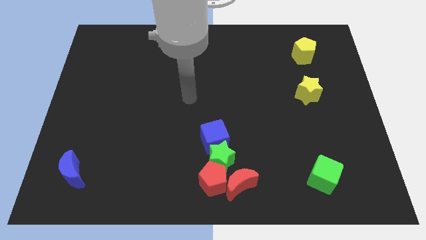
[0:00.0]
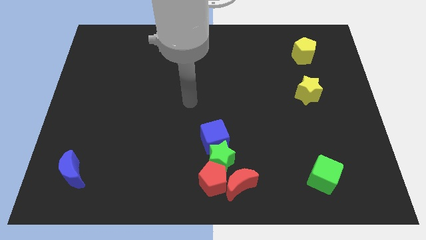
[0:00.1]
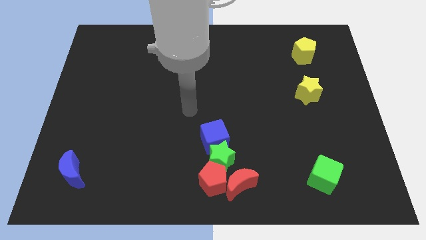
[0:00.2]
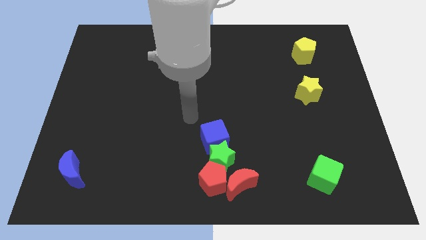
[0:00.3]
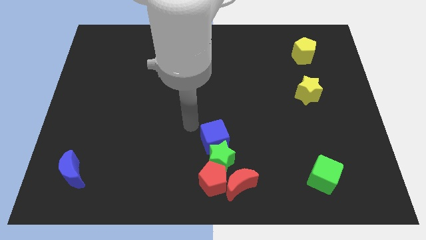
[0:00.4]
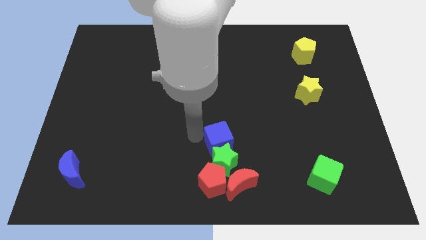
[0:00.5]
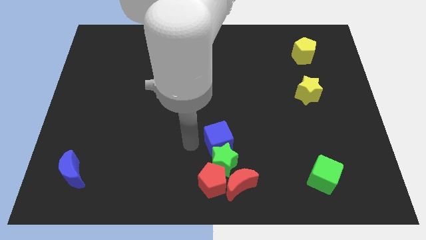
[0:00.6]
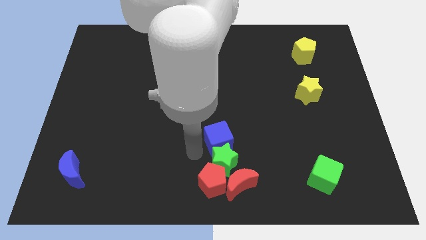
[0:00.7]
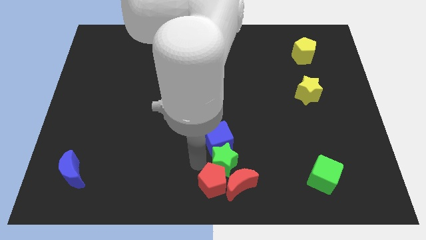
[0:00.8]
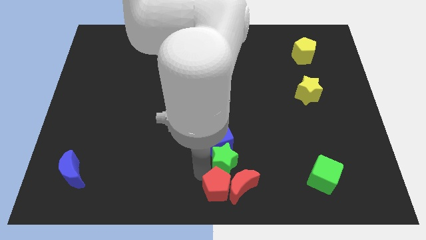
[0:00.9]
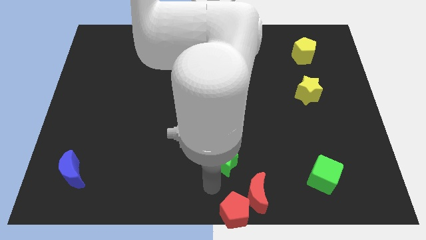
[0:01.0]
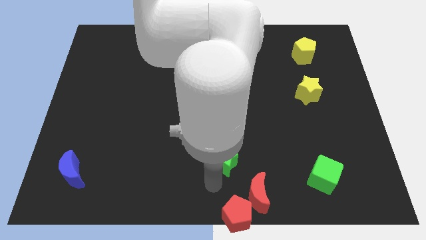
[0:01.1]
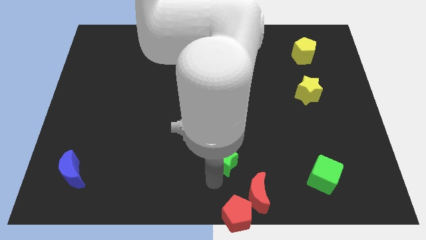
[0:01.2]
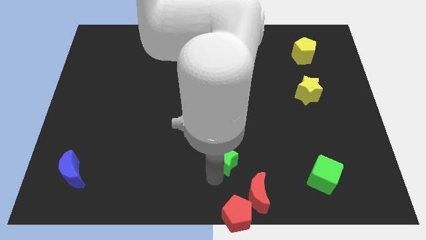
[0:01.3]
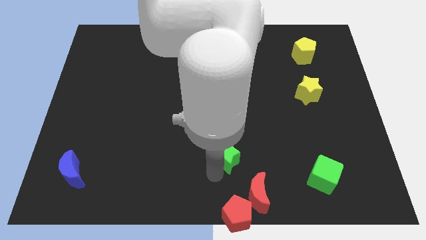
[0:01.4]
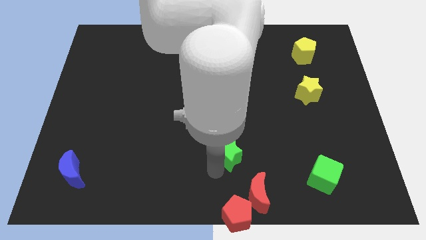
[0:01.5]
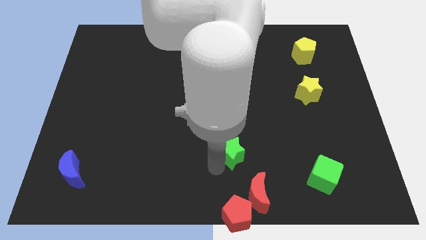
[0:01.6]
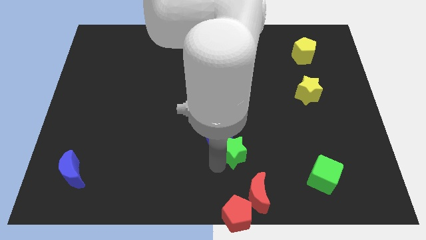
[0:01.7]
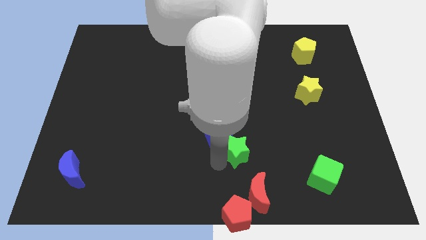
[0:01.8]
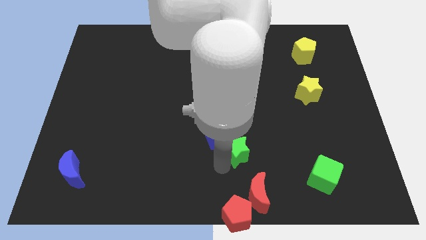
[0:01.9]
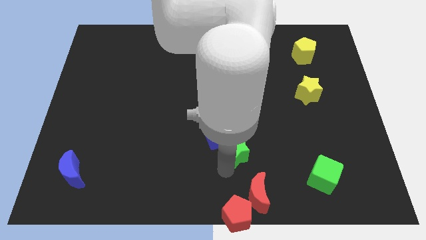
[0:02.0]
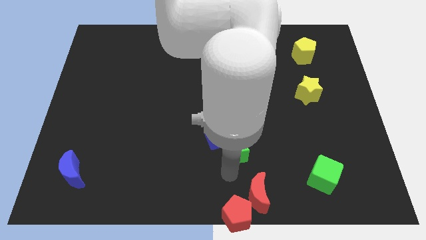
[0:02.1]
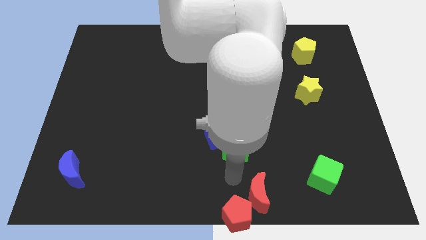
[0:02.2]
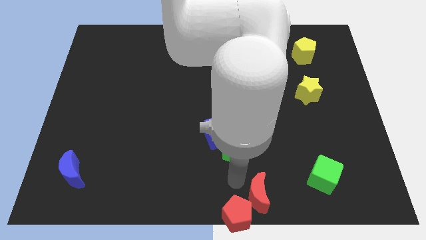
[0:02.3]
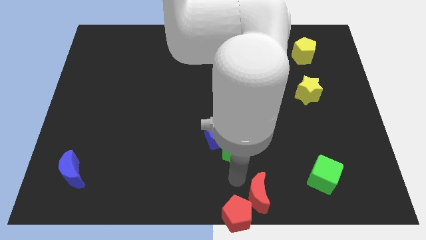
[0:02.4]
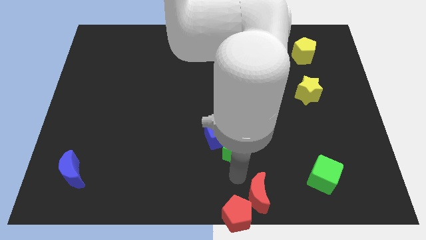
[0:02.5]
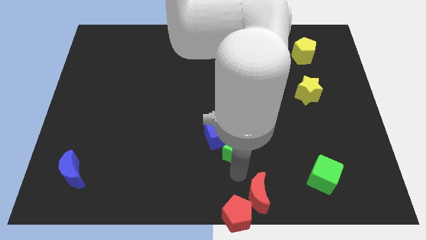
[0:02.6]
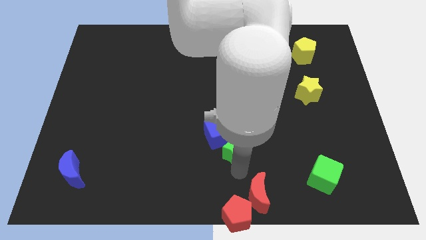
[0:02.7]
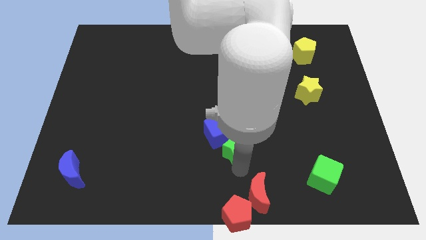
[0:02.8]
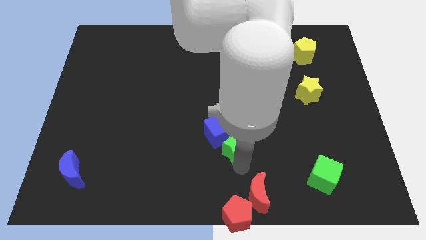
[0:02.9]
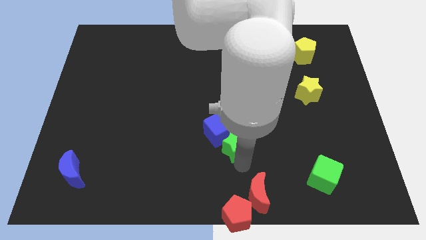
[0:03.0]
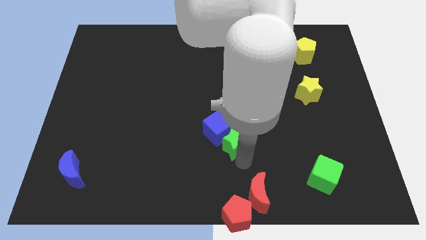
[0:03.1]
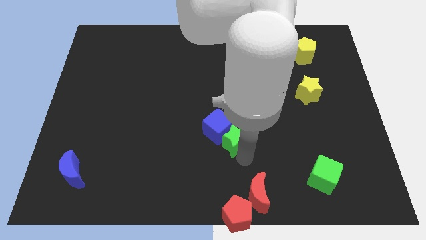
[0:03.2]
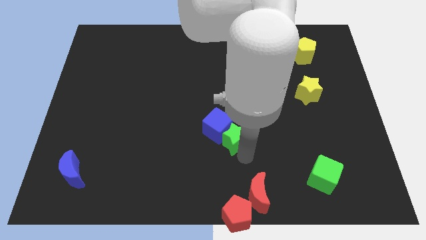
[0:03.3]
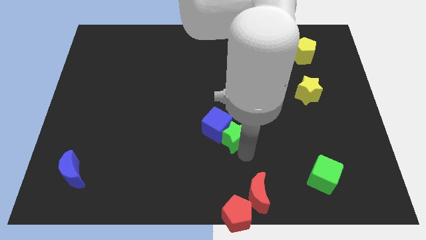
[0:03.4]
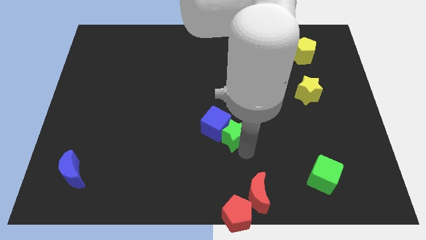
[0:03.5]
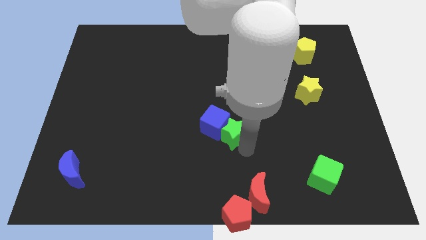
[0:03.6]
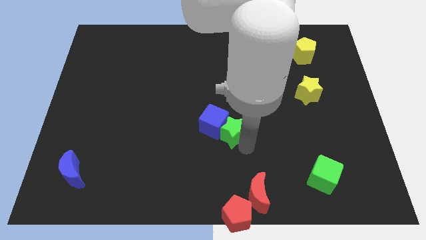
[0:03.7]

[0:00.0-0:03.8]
pull the green star apart from the group of blocks

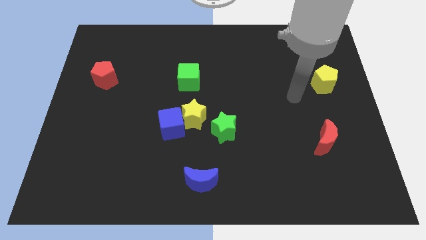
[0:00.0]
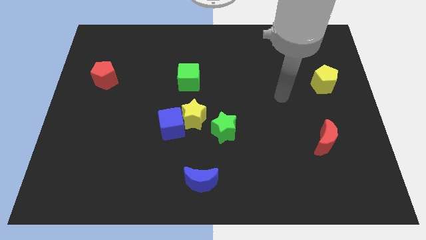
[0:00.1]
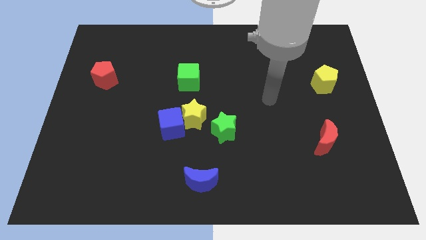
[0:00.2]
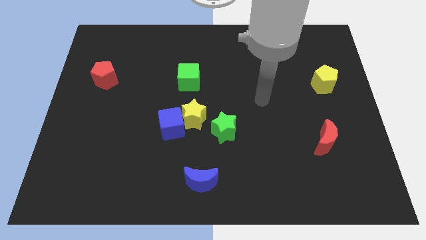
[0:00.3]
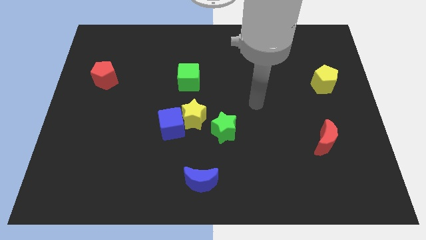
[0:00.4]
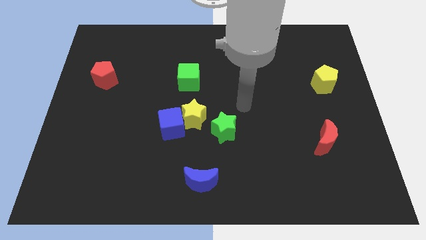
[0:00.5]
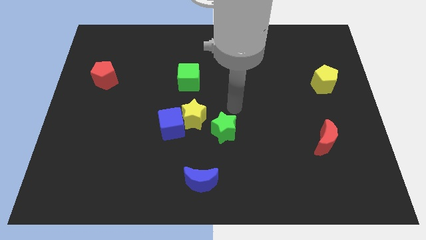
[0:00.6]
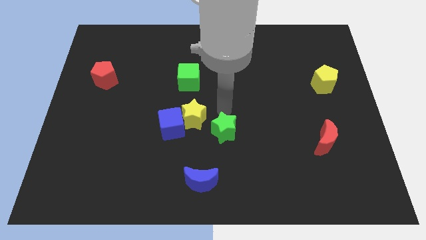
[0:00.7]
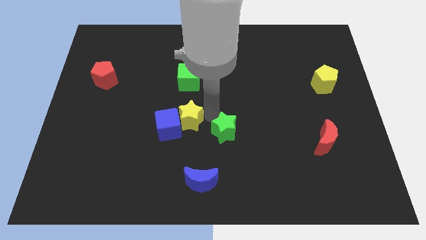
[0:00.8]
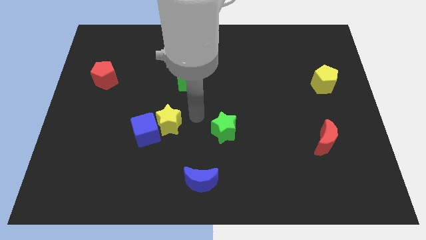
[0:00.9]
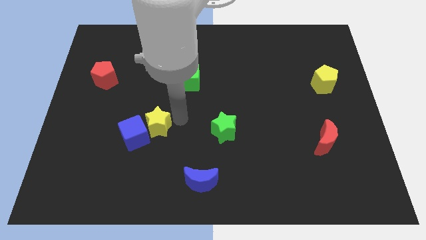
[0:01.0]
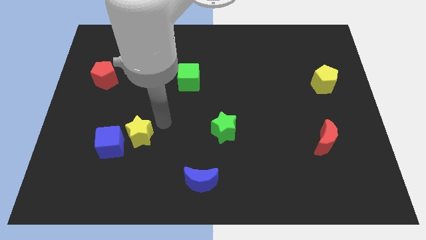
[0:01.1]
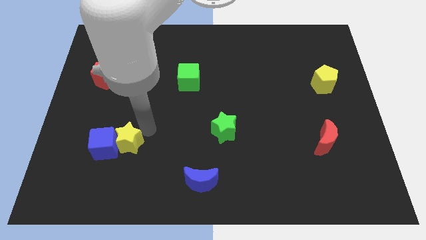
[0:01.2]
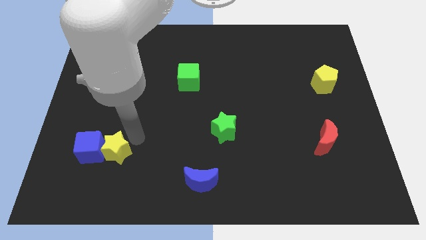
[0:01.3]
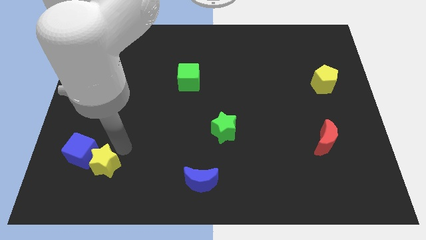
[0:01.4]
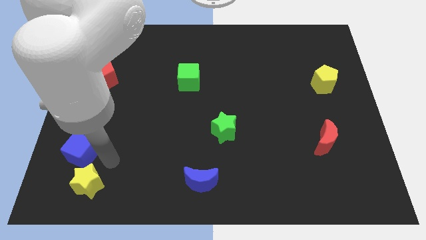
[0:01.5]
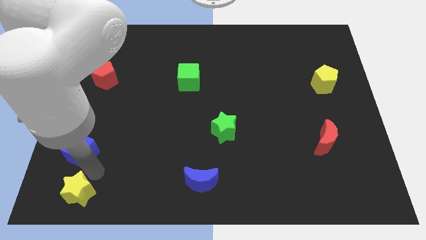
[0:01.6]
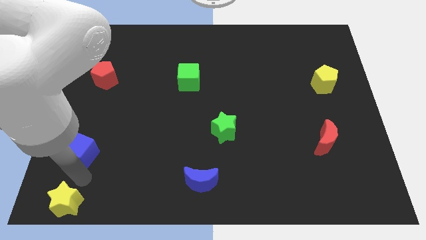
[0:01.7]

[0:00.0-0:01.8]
separate the blue cube from the yellow star

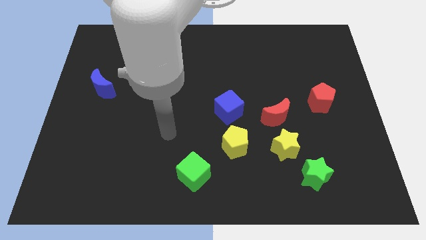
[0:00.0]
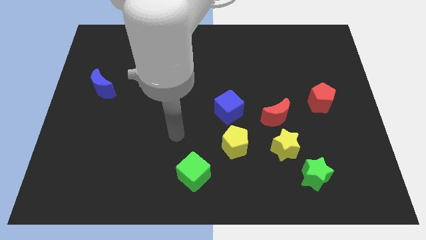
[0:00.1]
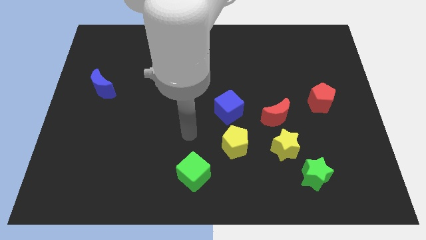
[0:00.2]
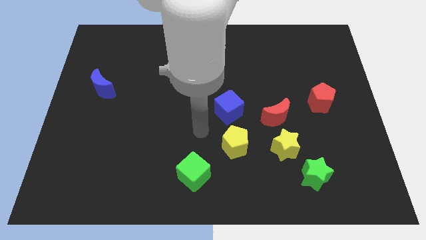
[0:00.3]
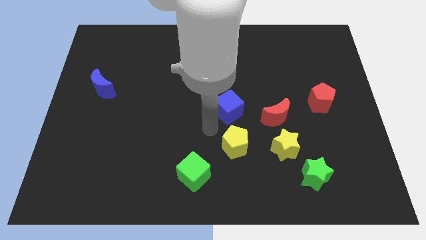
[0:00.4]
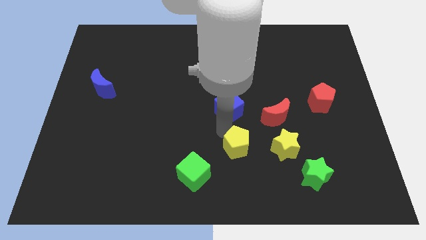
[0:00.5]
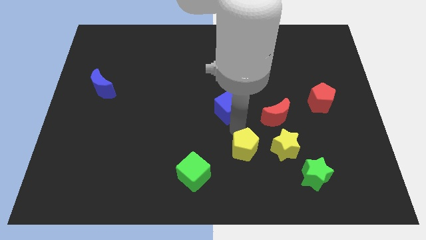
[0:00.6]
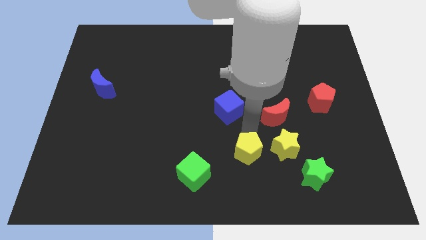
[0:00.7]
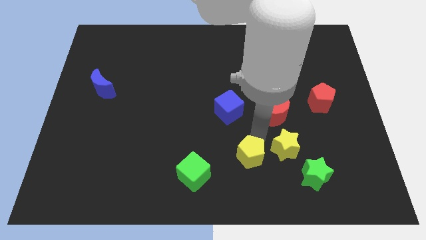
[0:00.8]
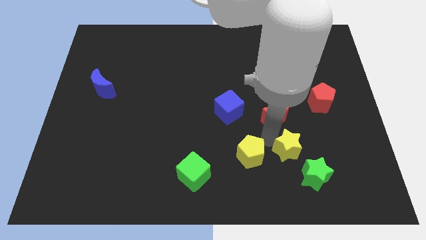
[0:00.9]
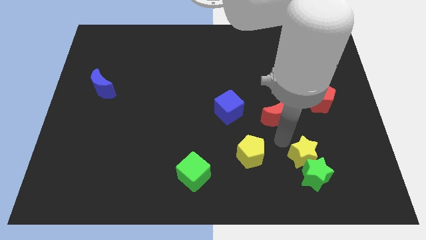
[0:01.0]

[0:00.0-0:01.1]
separate the red moon from the yellow star

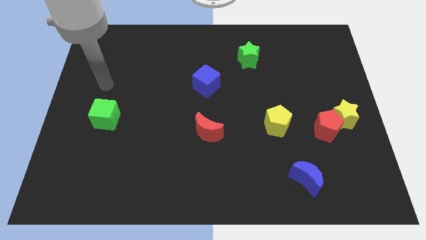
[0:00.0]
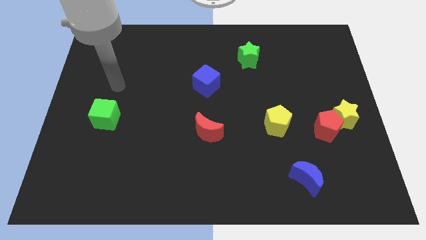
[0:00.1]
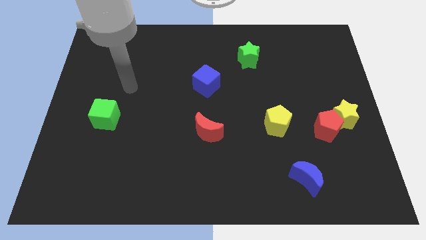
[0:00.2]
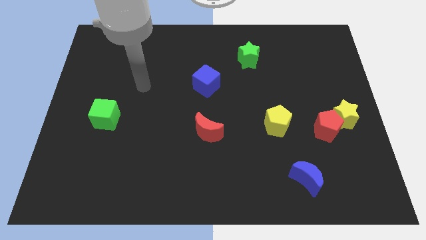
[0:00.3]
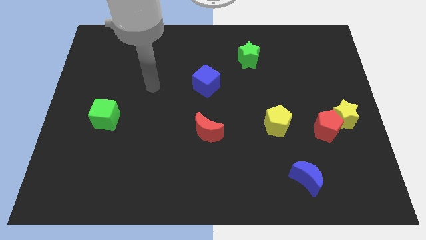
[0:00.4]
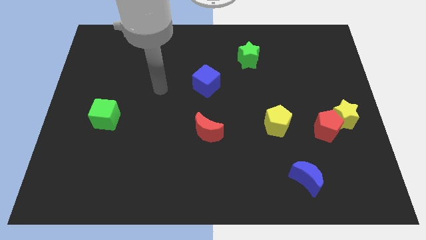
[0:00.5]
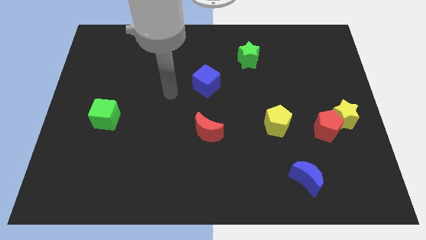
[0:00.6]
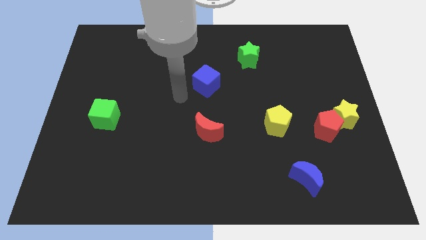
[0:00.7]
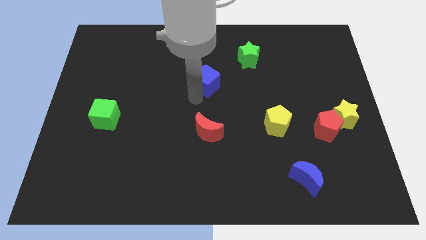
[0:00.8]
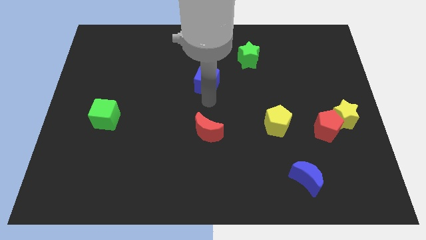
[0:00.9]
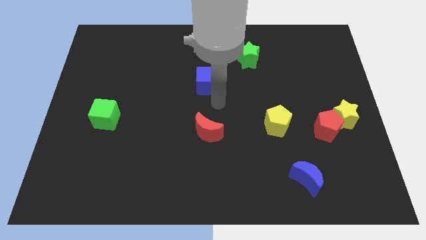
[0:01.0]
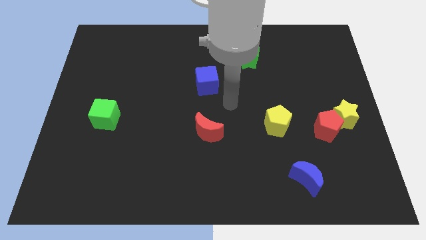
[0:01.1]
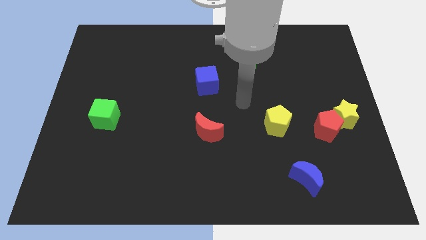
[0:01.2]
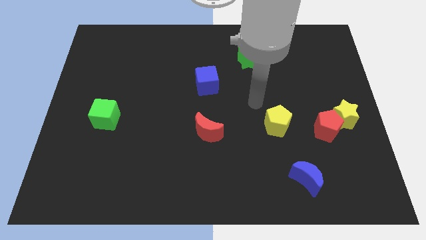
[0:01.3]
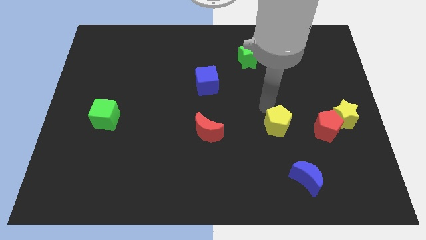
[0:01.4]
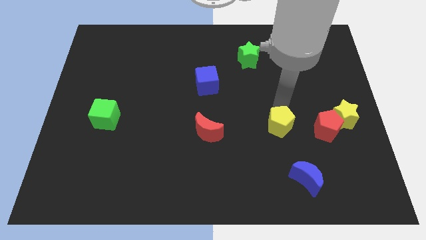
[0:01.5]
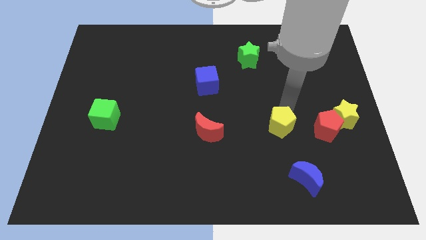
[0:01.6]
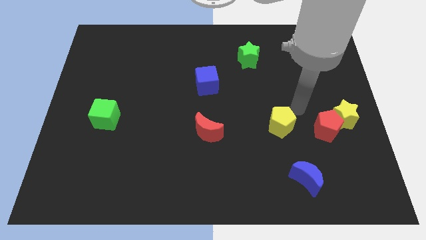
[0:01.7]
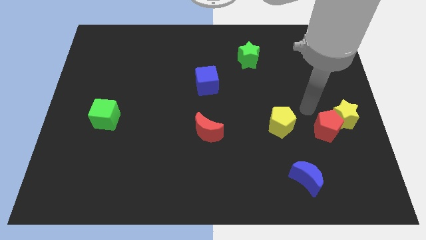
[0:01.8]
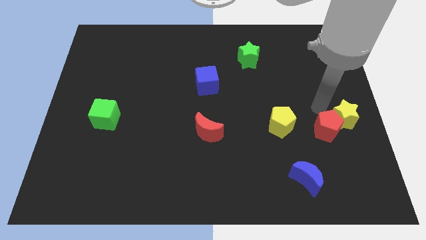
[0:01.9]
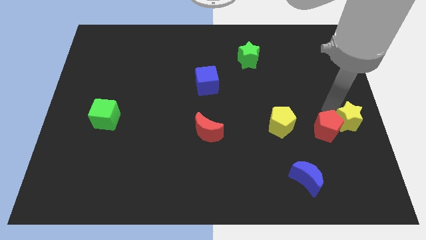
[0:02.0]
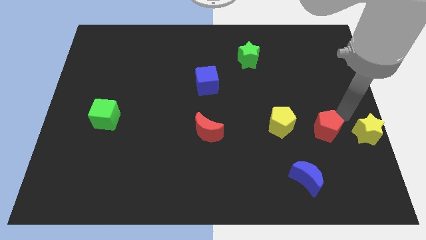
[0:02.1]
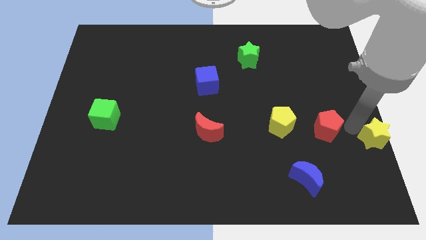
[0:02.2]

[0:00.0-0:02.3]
pull the red pentagon apart from the yellow star

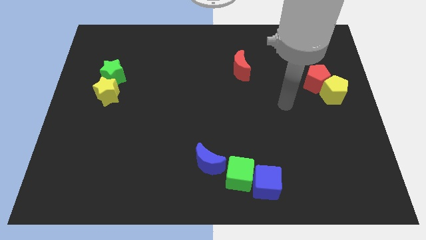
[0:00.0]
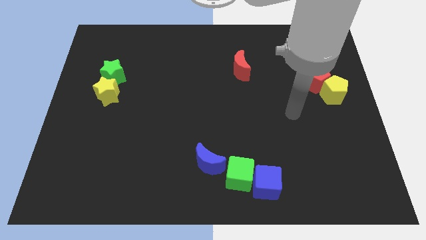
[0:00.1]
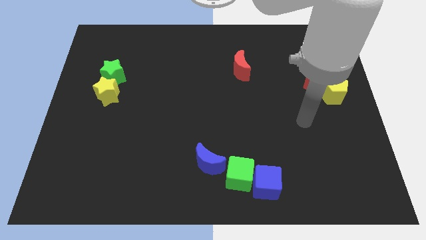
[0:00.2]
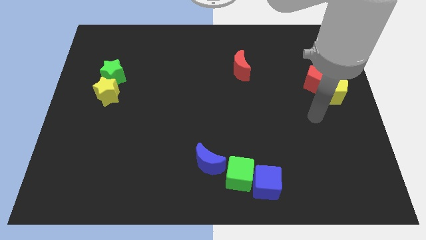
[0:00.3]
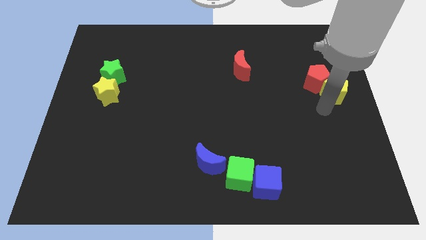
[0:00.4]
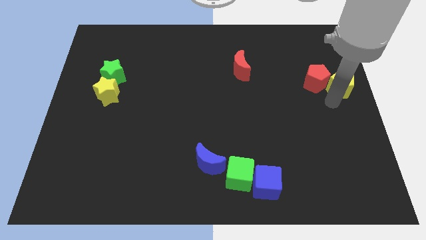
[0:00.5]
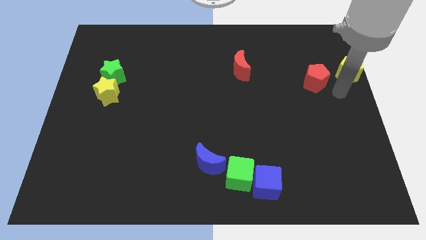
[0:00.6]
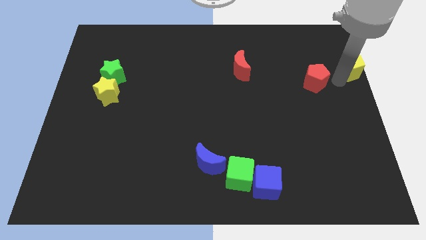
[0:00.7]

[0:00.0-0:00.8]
pull the red pentagon apart from the yellow pentagon
